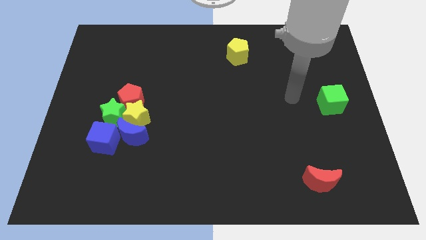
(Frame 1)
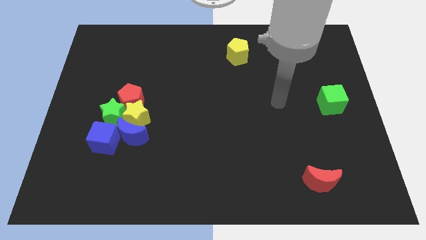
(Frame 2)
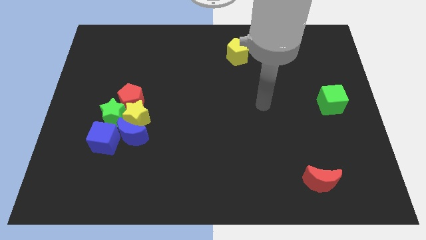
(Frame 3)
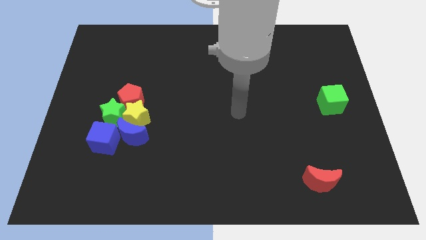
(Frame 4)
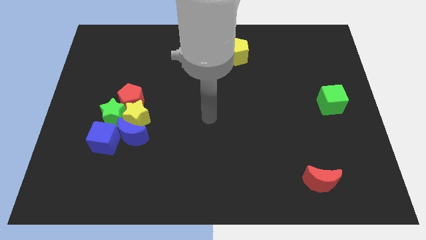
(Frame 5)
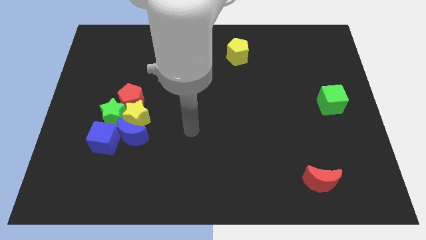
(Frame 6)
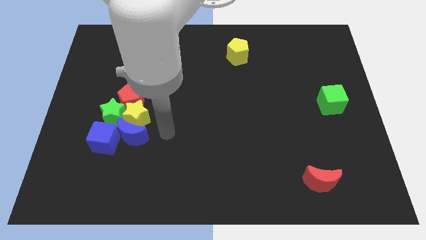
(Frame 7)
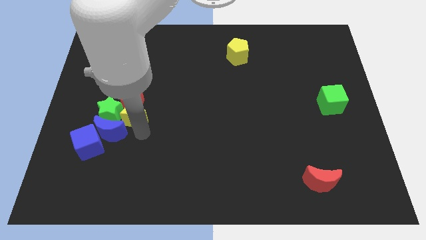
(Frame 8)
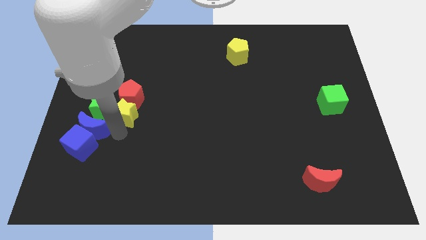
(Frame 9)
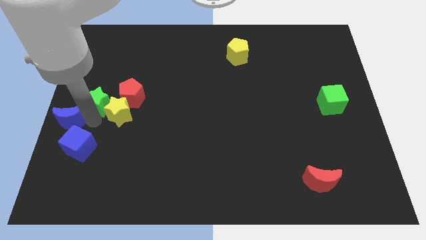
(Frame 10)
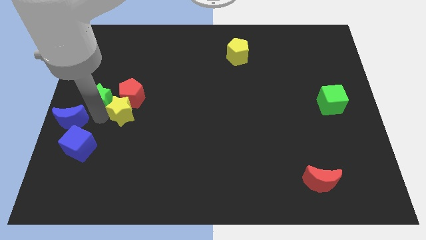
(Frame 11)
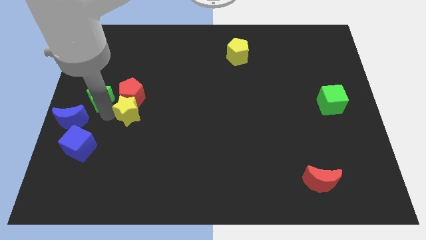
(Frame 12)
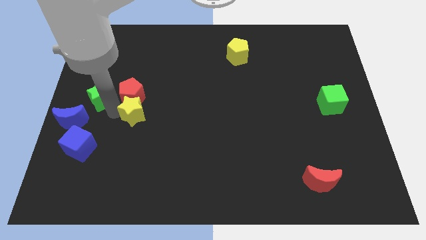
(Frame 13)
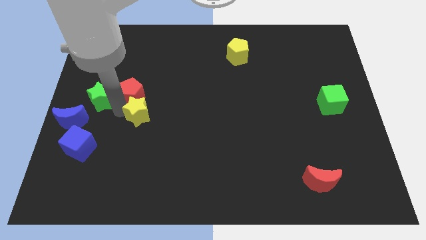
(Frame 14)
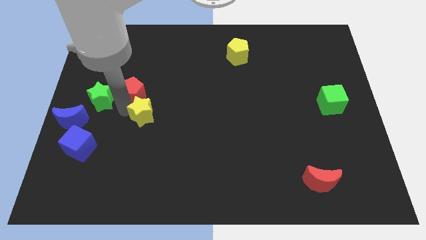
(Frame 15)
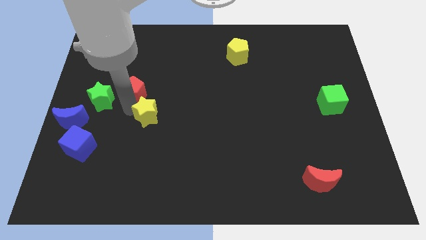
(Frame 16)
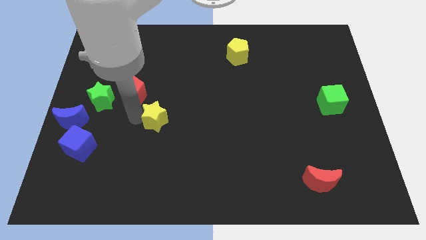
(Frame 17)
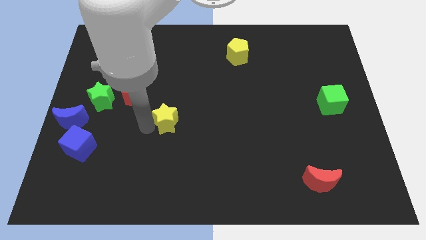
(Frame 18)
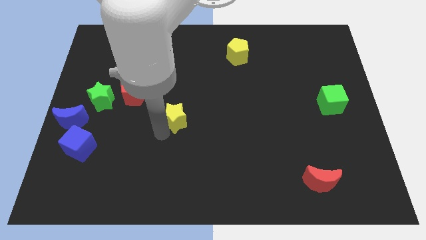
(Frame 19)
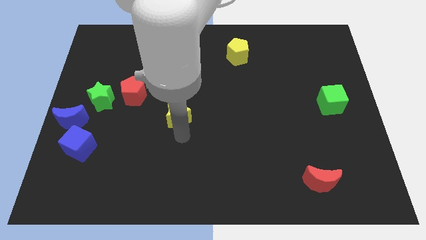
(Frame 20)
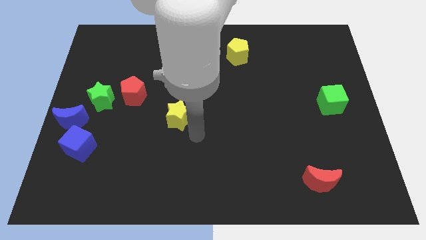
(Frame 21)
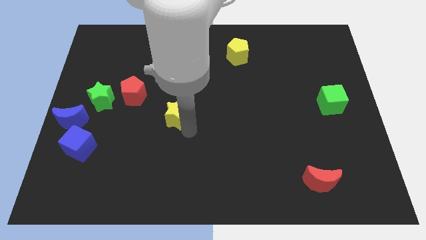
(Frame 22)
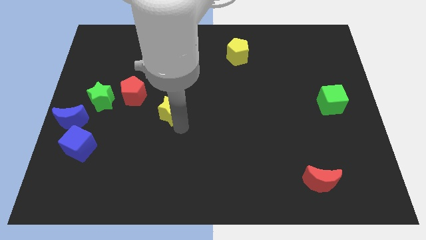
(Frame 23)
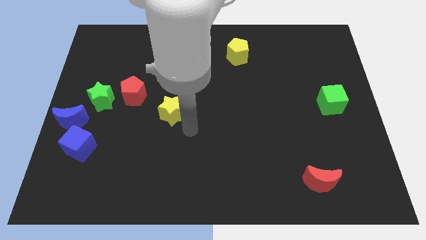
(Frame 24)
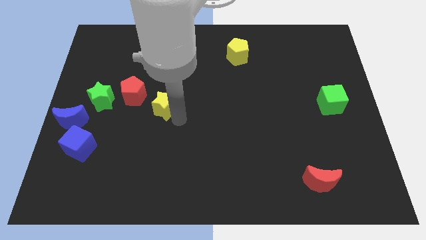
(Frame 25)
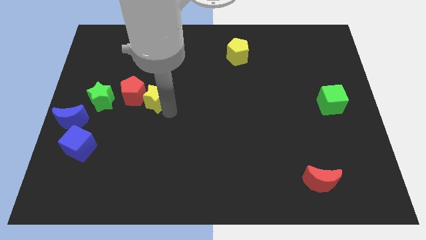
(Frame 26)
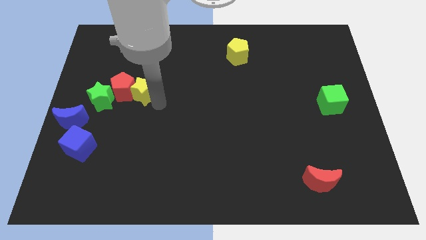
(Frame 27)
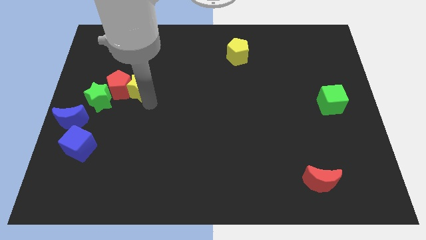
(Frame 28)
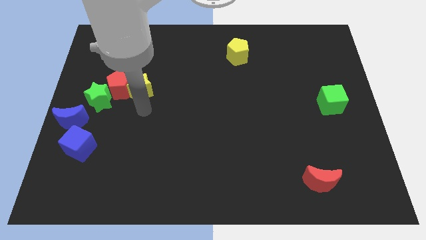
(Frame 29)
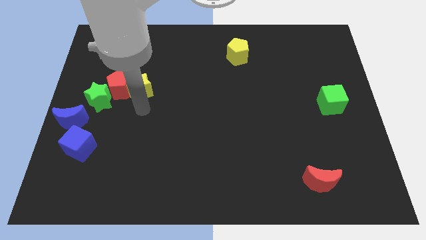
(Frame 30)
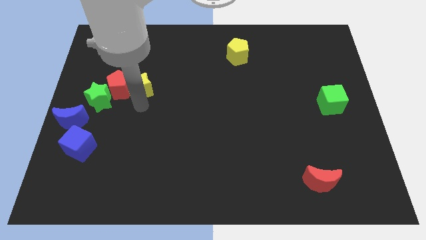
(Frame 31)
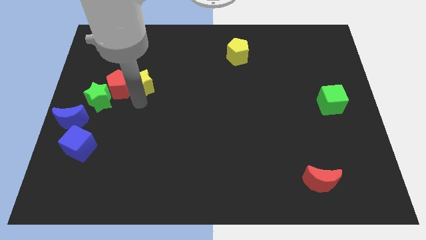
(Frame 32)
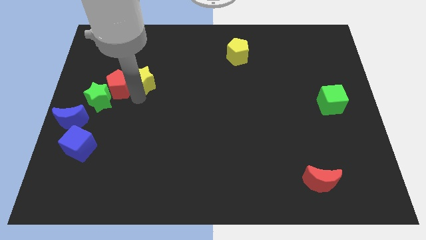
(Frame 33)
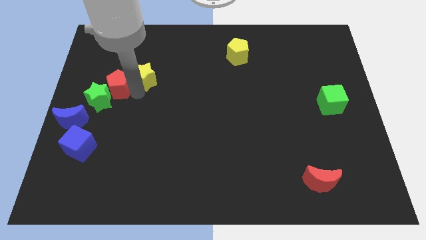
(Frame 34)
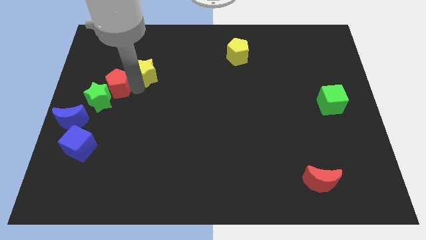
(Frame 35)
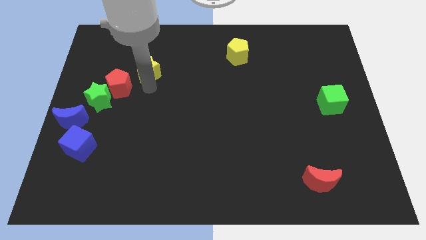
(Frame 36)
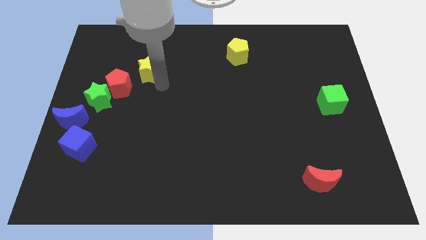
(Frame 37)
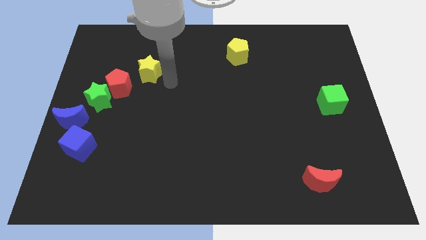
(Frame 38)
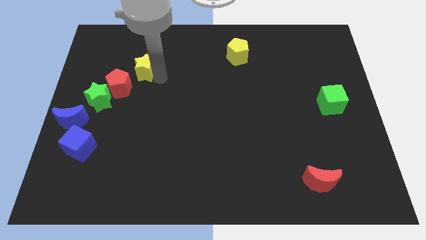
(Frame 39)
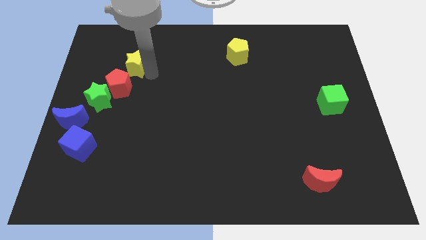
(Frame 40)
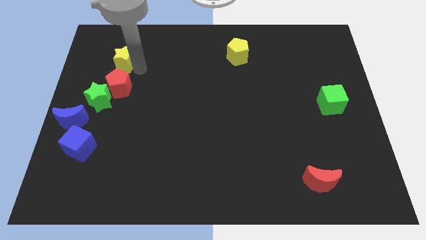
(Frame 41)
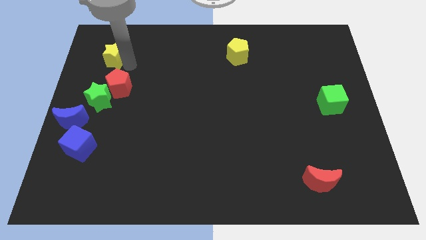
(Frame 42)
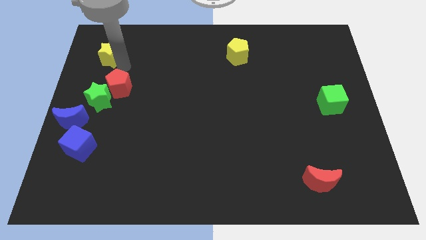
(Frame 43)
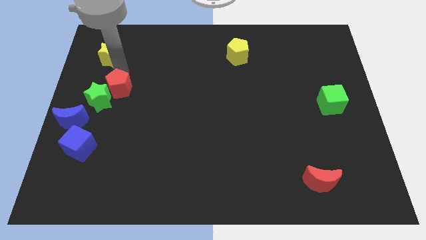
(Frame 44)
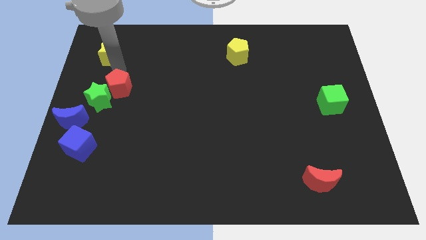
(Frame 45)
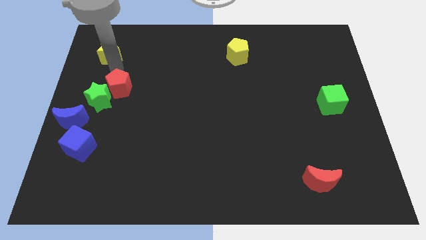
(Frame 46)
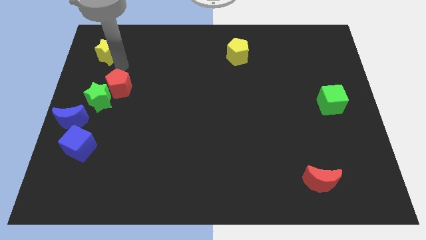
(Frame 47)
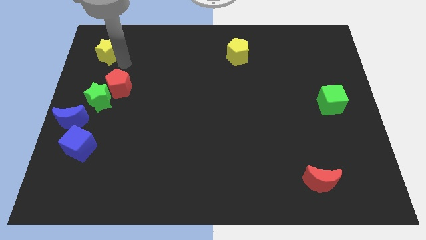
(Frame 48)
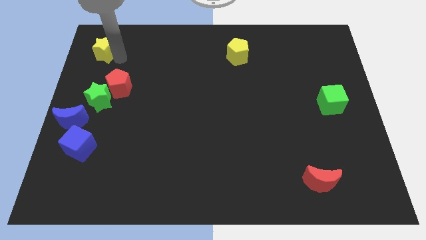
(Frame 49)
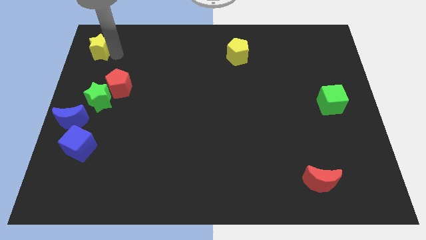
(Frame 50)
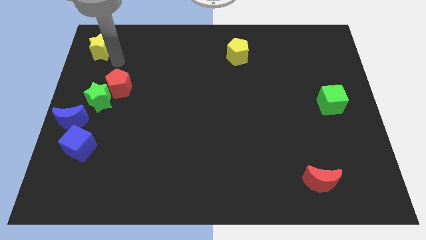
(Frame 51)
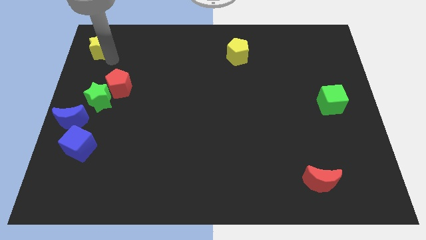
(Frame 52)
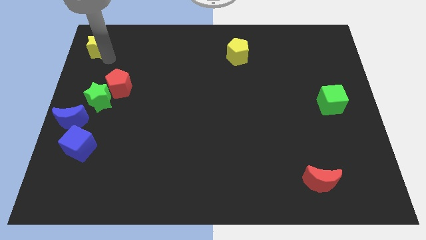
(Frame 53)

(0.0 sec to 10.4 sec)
move the yellow star to the top left corner

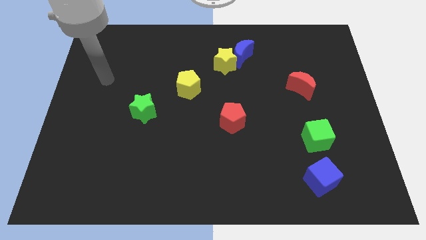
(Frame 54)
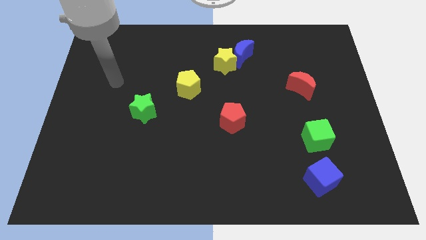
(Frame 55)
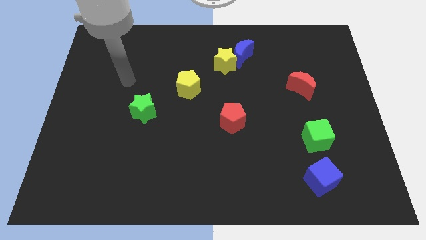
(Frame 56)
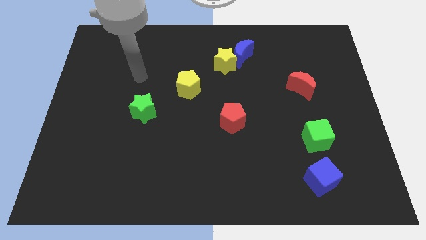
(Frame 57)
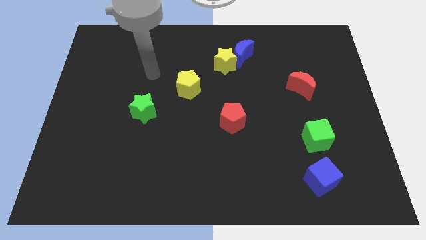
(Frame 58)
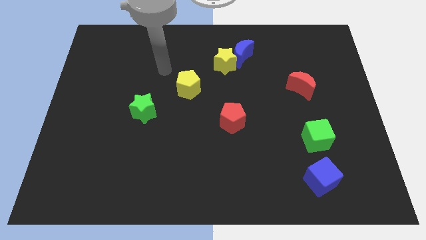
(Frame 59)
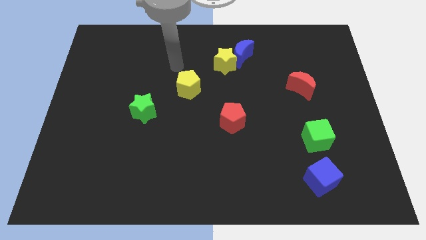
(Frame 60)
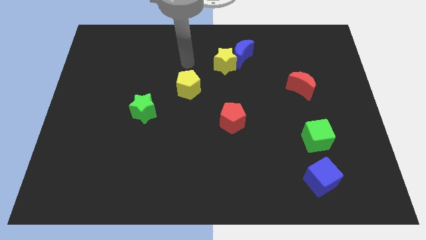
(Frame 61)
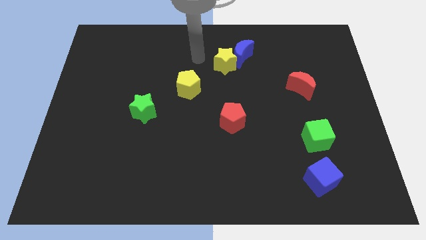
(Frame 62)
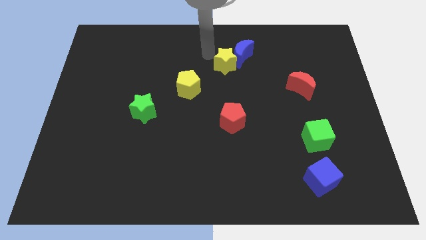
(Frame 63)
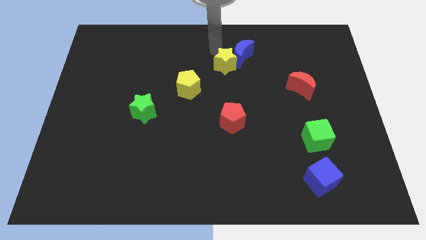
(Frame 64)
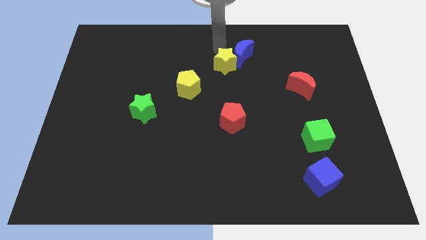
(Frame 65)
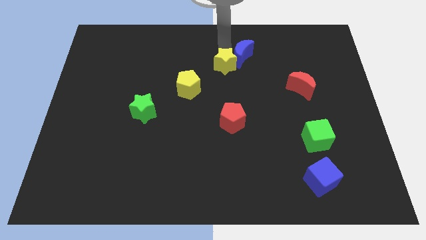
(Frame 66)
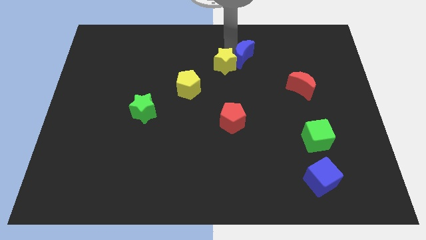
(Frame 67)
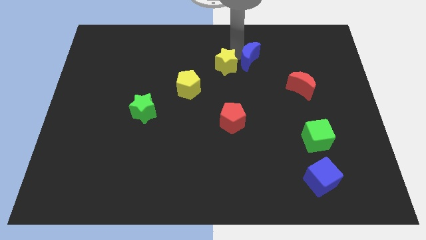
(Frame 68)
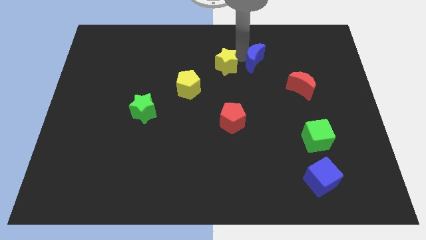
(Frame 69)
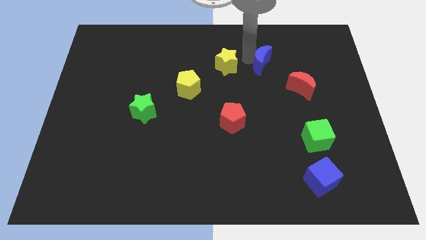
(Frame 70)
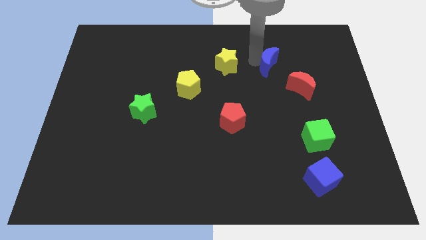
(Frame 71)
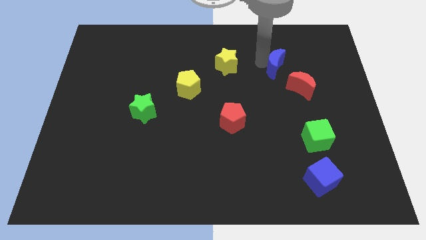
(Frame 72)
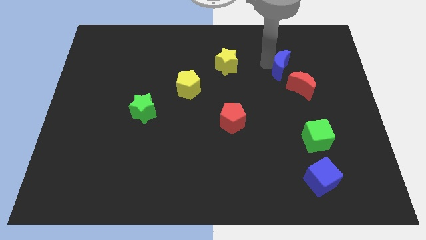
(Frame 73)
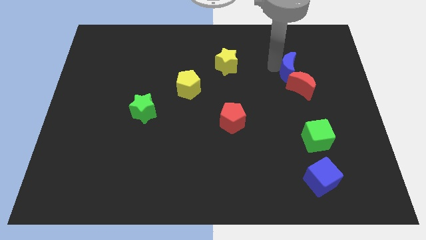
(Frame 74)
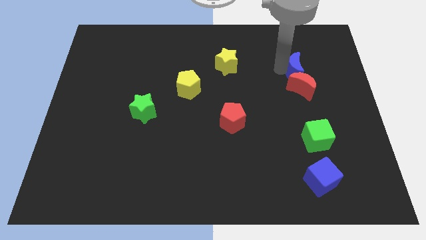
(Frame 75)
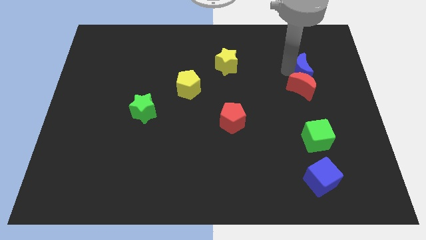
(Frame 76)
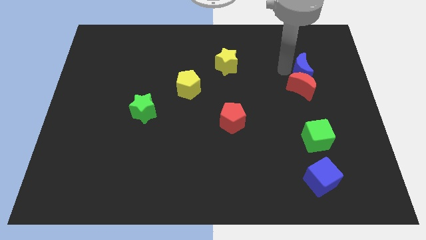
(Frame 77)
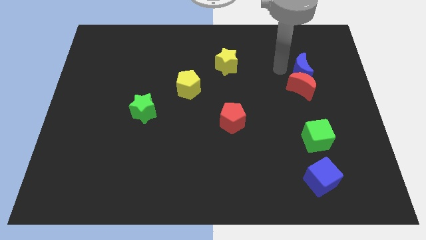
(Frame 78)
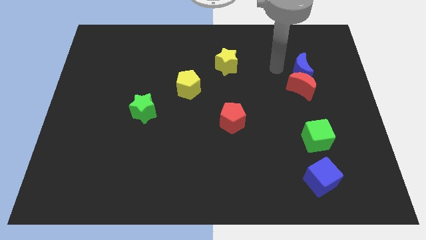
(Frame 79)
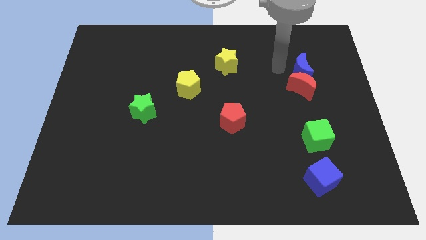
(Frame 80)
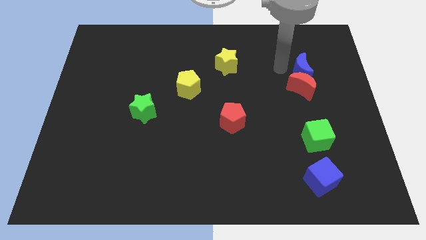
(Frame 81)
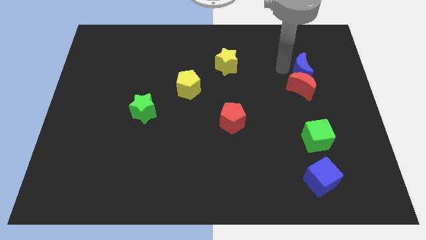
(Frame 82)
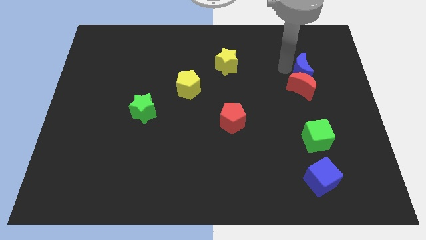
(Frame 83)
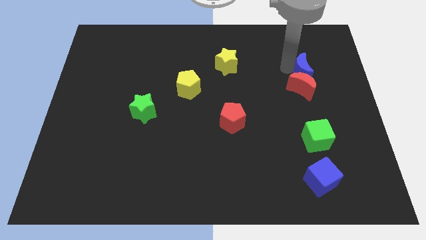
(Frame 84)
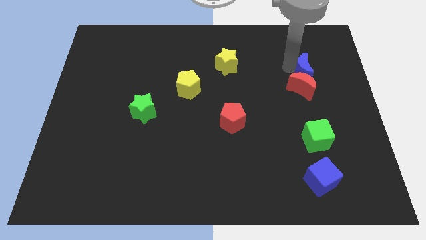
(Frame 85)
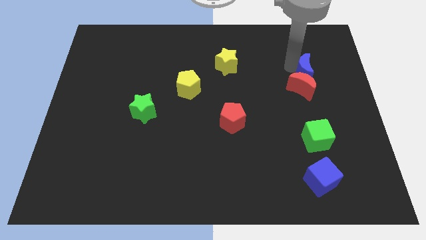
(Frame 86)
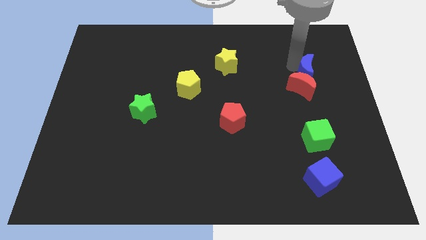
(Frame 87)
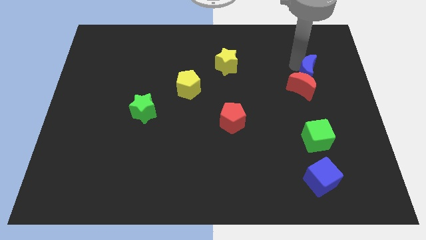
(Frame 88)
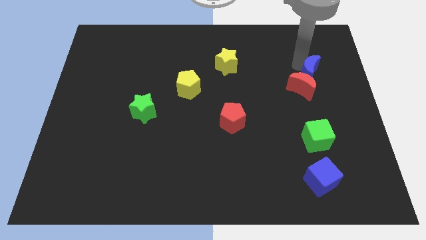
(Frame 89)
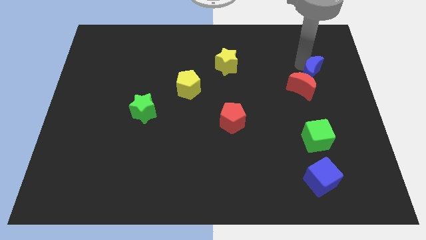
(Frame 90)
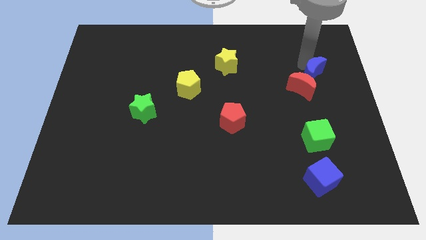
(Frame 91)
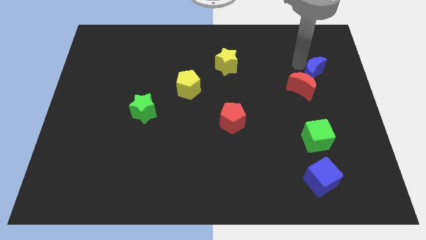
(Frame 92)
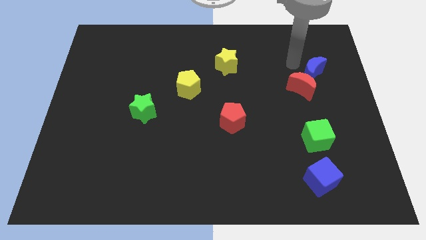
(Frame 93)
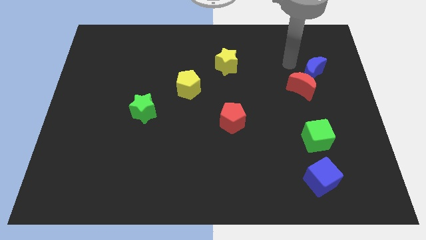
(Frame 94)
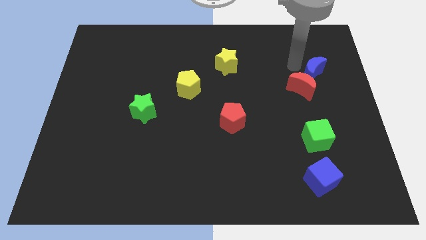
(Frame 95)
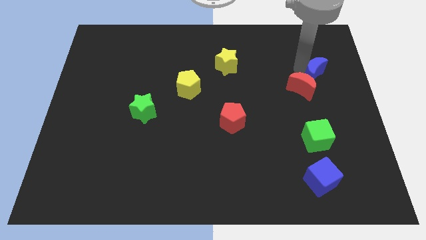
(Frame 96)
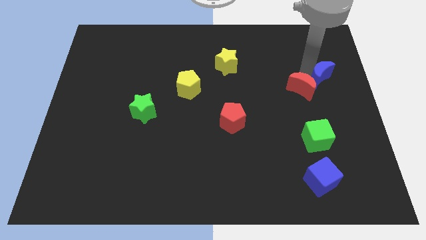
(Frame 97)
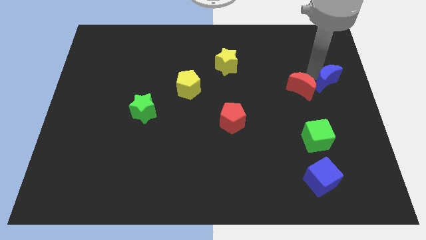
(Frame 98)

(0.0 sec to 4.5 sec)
push the blue moon to the center right
